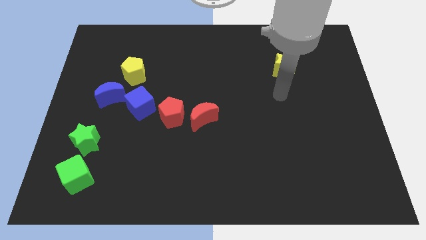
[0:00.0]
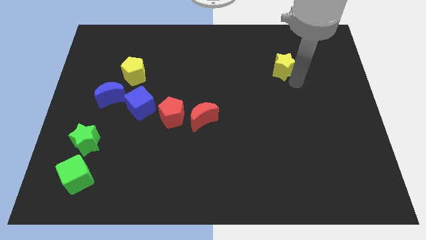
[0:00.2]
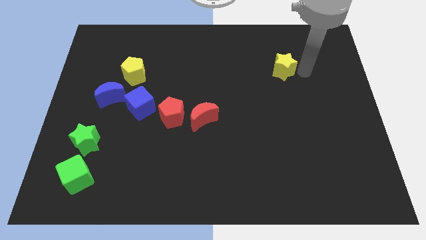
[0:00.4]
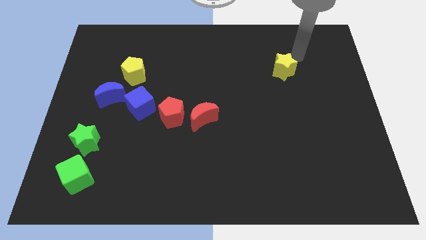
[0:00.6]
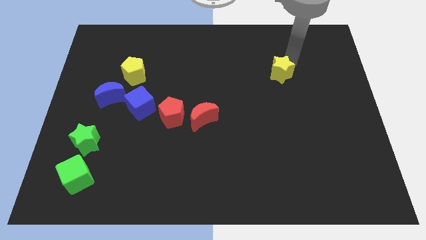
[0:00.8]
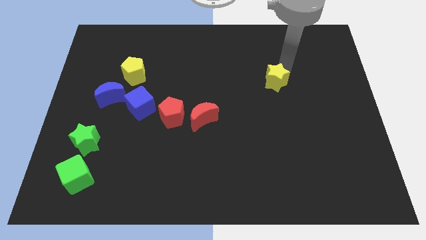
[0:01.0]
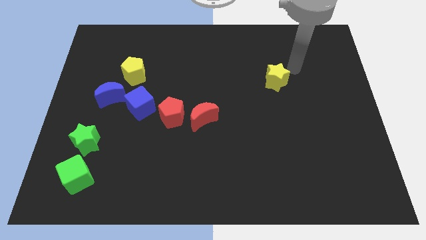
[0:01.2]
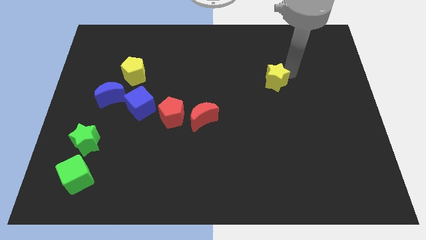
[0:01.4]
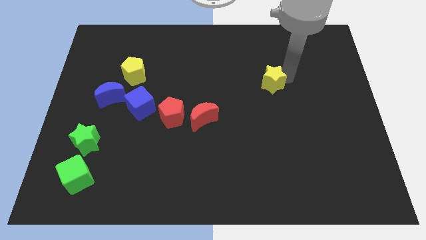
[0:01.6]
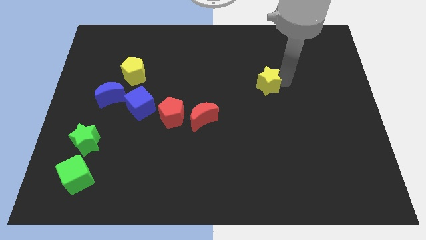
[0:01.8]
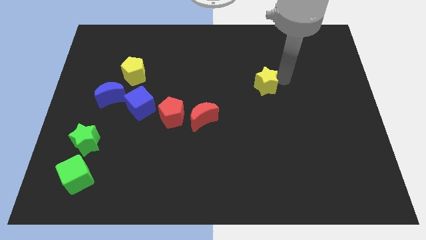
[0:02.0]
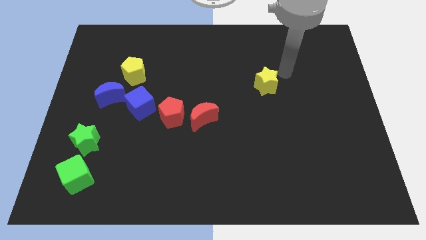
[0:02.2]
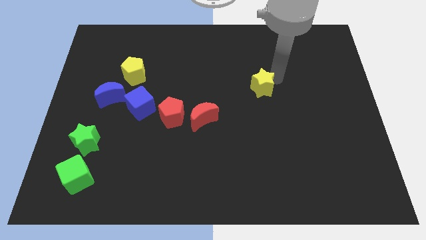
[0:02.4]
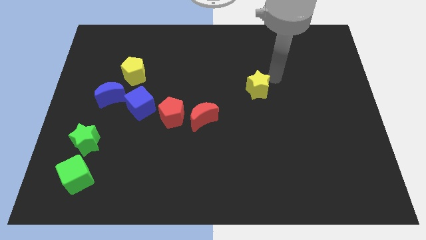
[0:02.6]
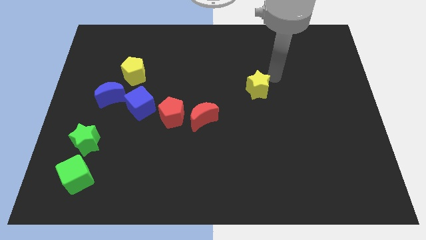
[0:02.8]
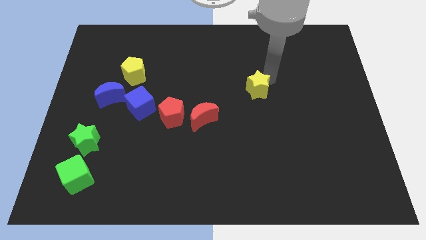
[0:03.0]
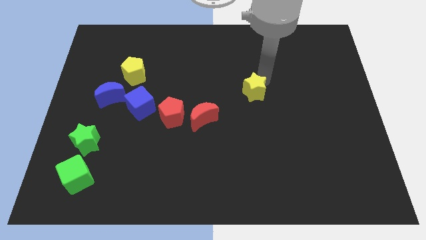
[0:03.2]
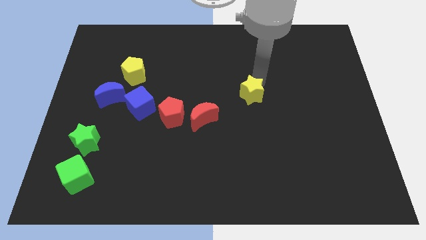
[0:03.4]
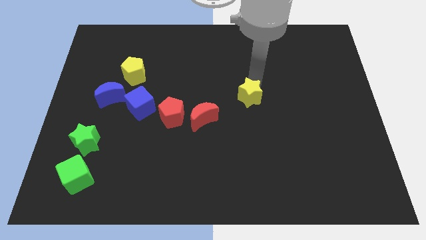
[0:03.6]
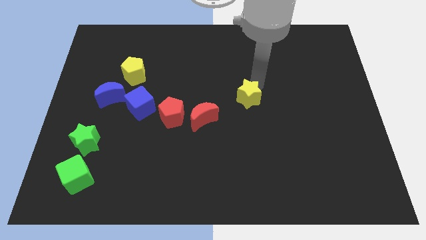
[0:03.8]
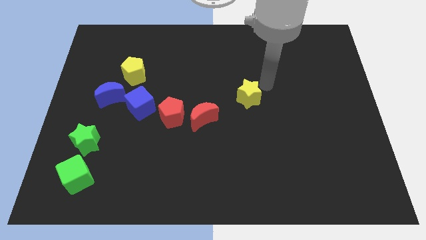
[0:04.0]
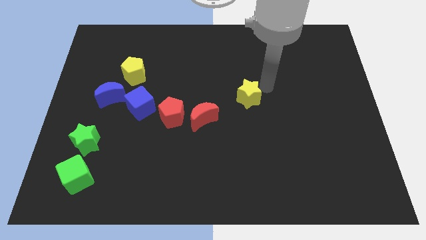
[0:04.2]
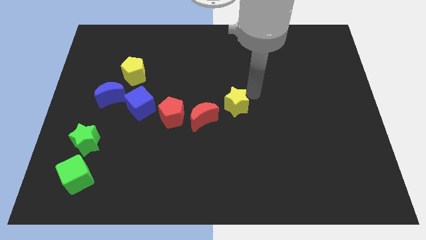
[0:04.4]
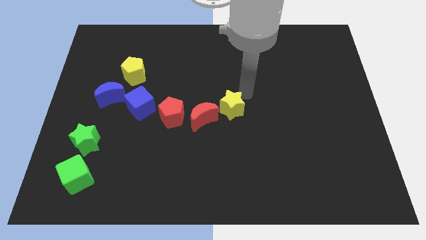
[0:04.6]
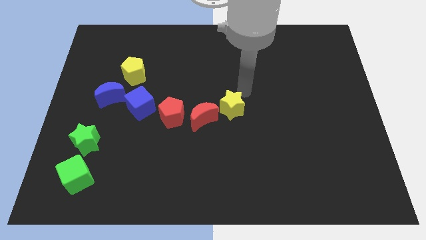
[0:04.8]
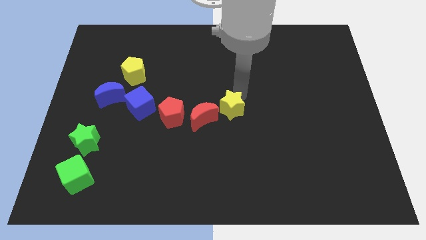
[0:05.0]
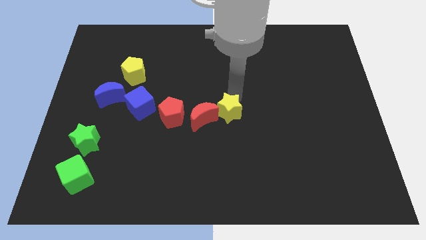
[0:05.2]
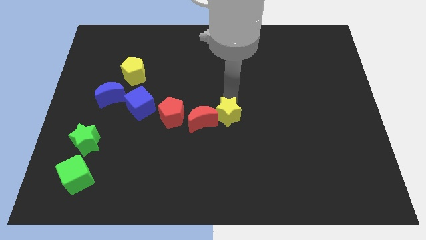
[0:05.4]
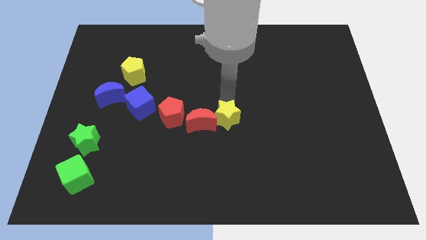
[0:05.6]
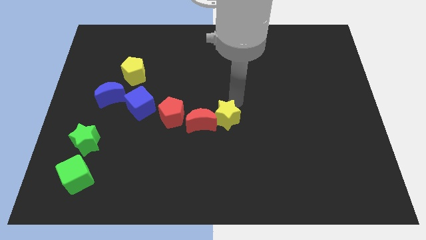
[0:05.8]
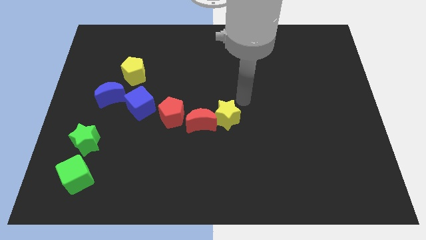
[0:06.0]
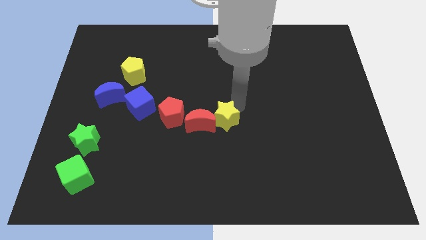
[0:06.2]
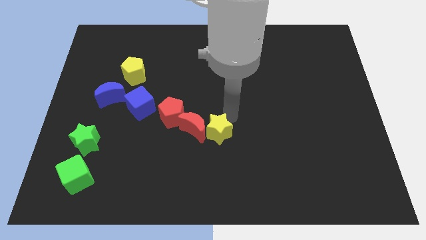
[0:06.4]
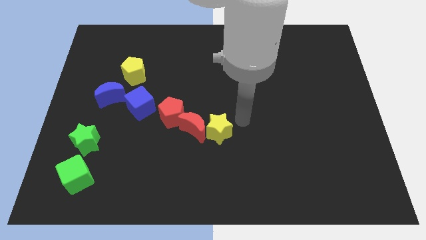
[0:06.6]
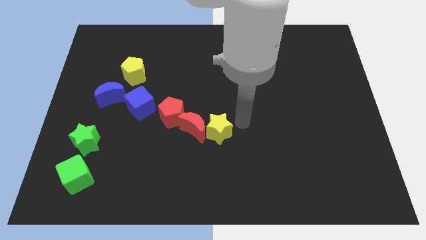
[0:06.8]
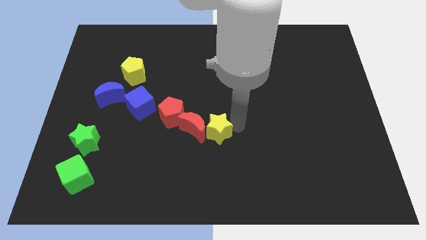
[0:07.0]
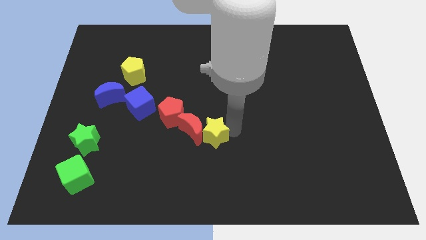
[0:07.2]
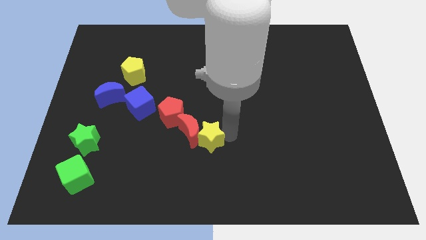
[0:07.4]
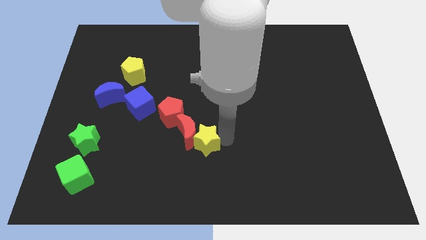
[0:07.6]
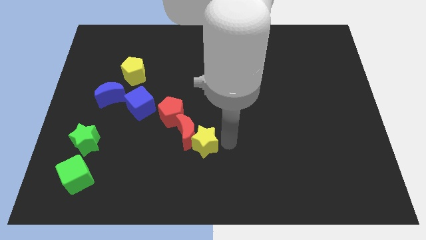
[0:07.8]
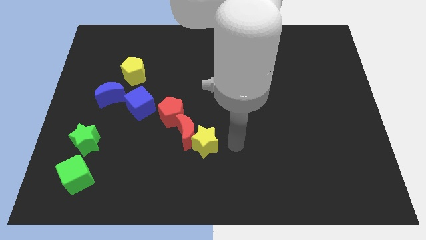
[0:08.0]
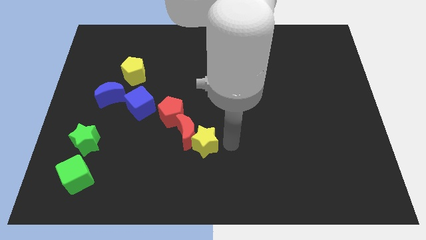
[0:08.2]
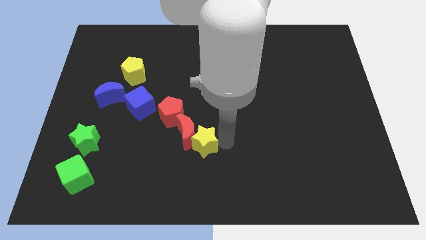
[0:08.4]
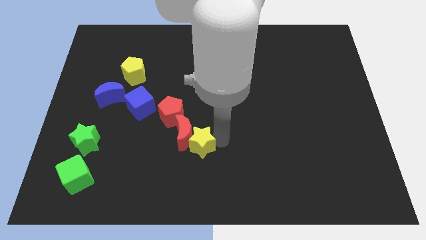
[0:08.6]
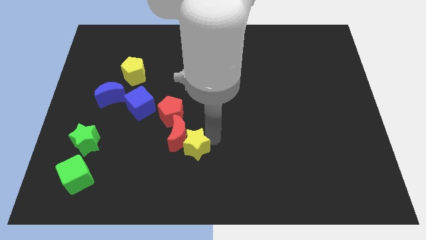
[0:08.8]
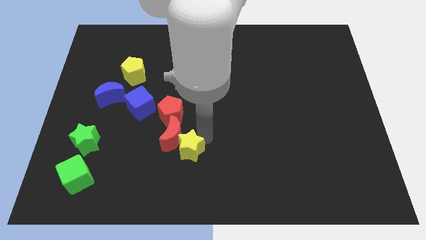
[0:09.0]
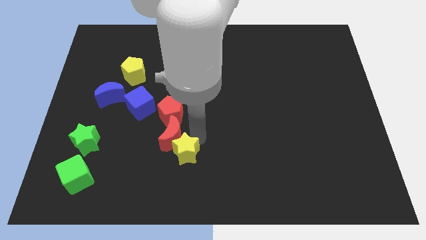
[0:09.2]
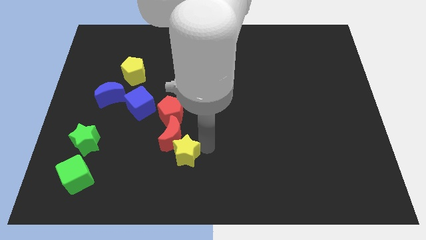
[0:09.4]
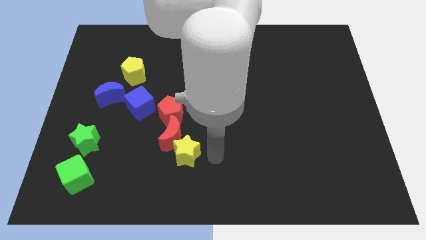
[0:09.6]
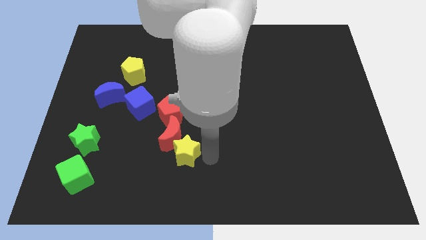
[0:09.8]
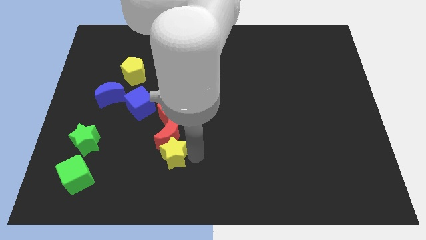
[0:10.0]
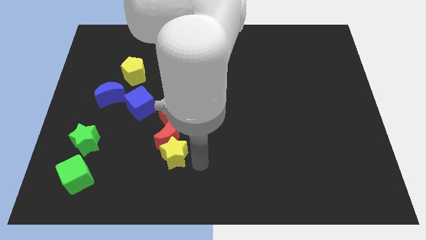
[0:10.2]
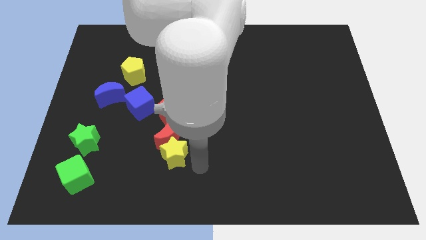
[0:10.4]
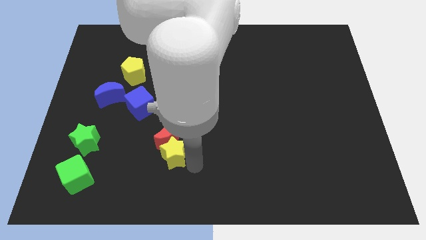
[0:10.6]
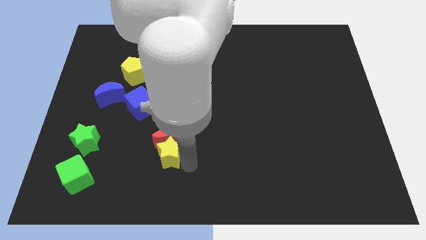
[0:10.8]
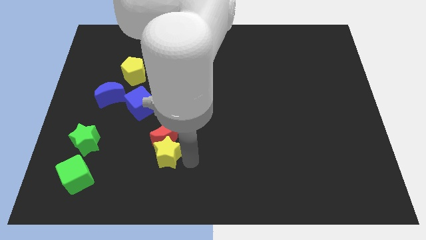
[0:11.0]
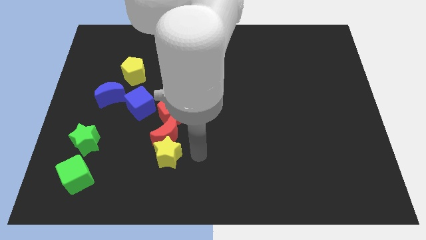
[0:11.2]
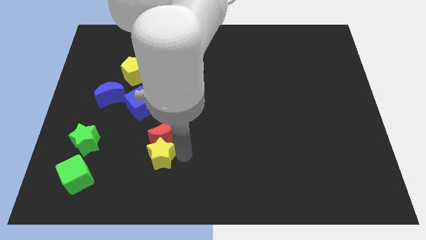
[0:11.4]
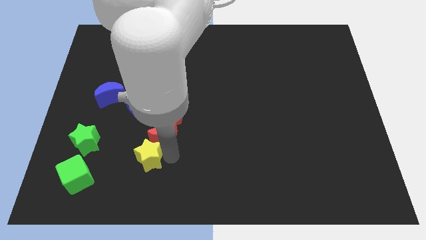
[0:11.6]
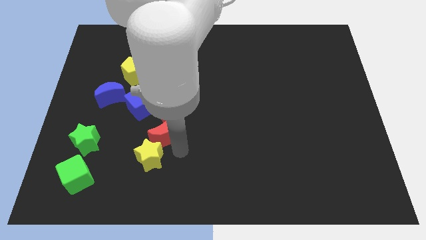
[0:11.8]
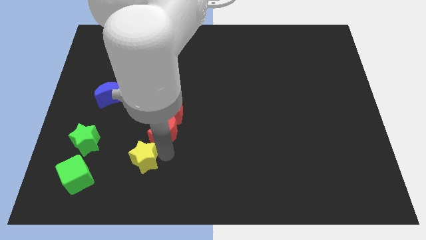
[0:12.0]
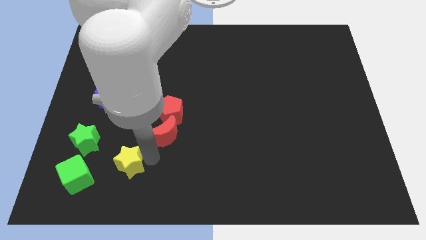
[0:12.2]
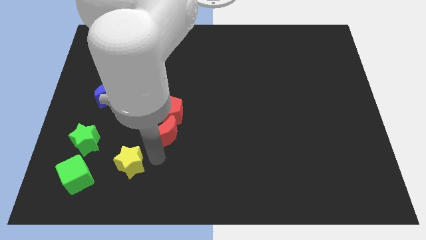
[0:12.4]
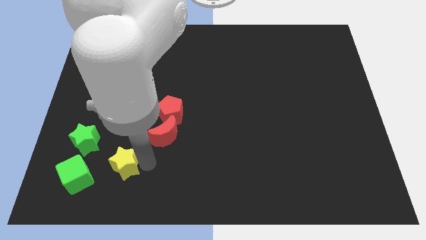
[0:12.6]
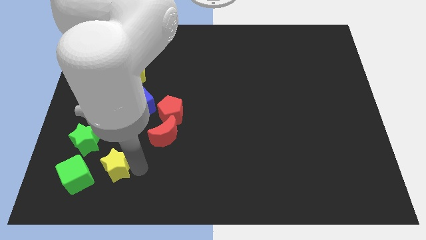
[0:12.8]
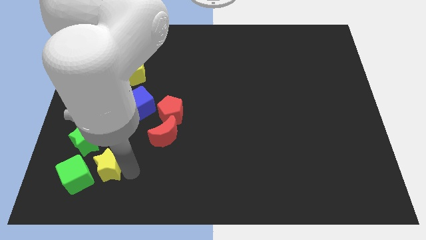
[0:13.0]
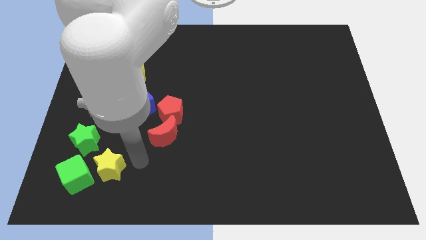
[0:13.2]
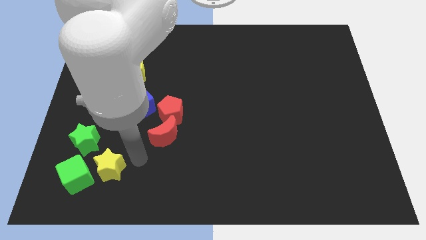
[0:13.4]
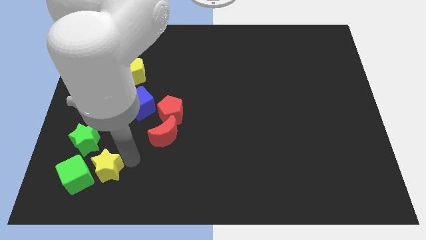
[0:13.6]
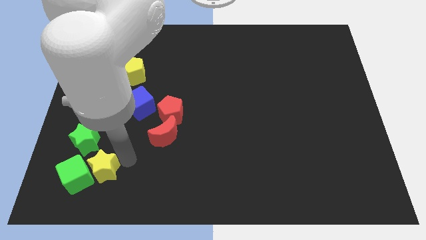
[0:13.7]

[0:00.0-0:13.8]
put the yellow star close to the green cube
